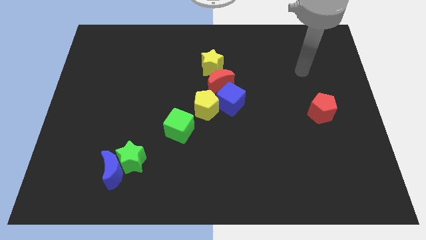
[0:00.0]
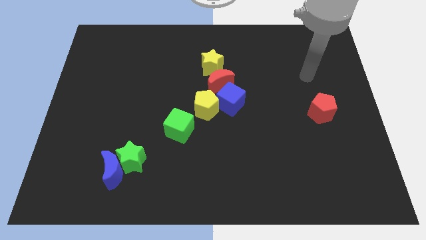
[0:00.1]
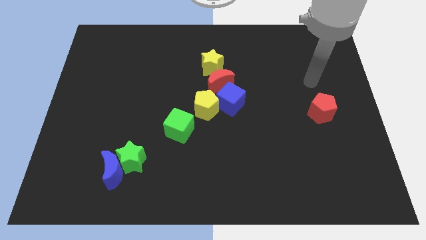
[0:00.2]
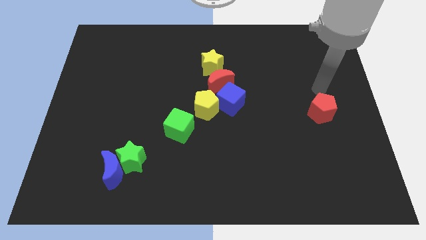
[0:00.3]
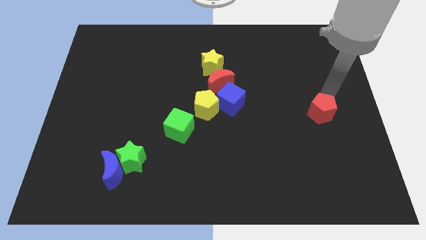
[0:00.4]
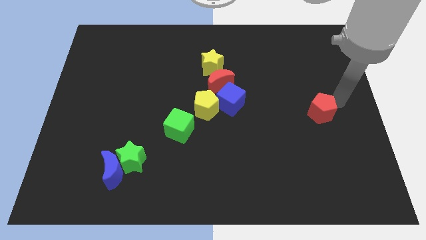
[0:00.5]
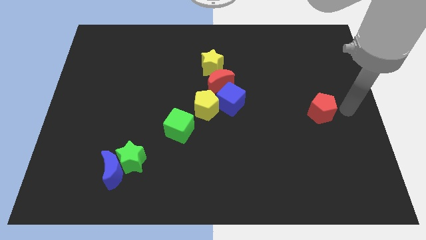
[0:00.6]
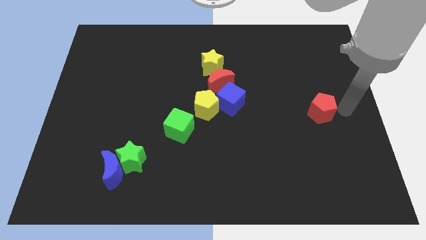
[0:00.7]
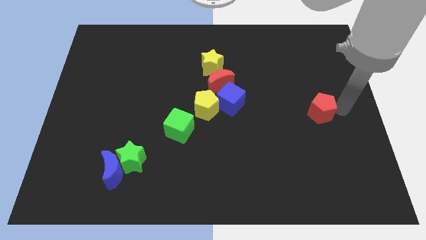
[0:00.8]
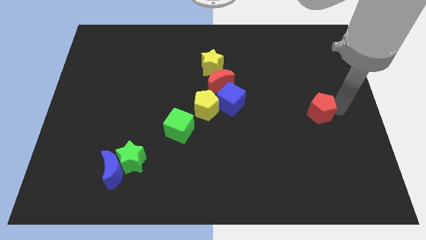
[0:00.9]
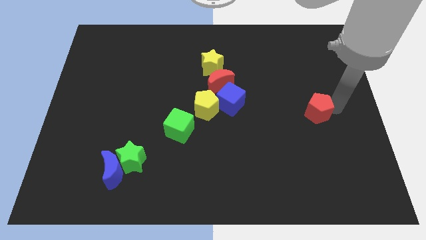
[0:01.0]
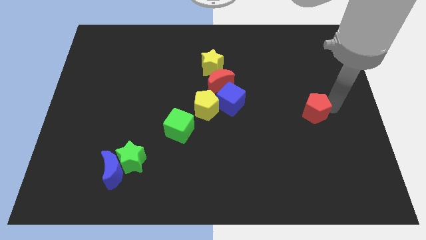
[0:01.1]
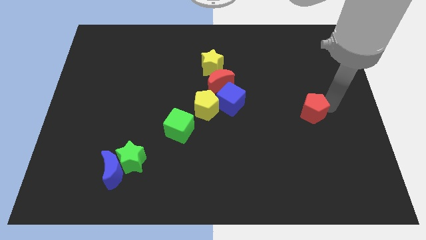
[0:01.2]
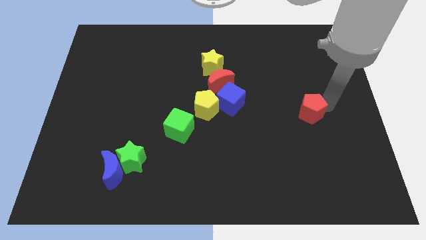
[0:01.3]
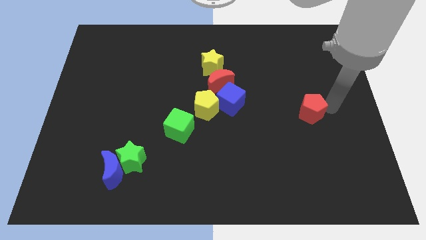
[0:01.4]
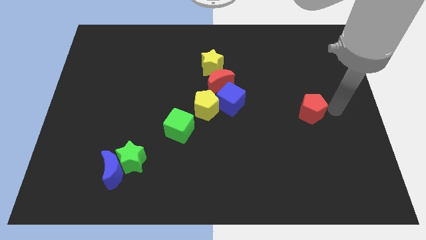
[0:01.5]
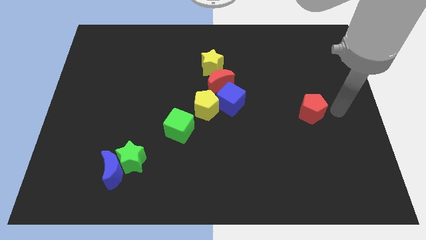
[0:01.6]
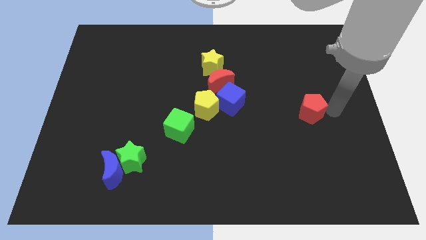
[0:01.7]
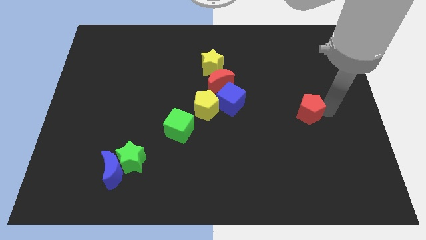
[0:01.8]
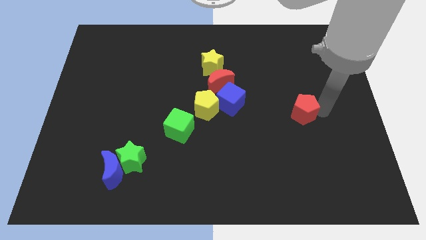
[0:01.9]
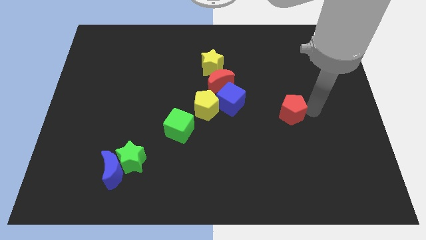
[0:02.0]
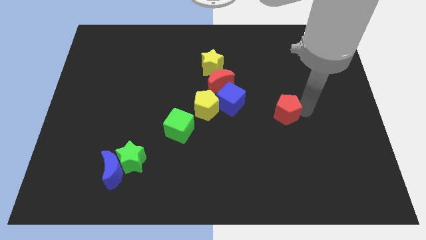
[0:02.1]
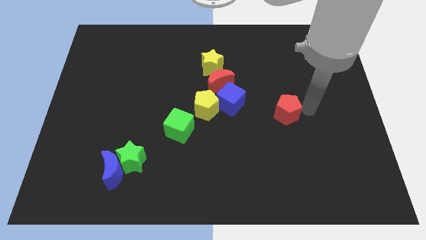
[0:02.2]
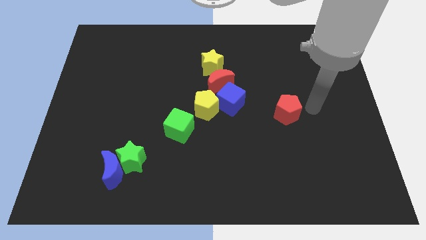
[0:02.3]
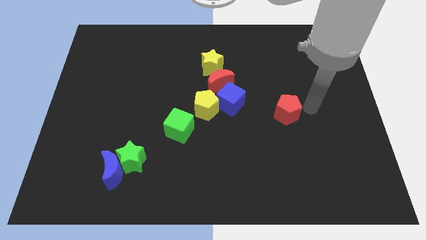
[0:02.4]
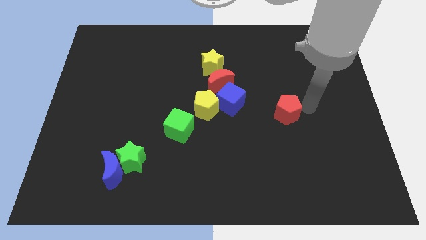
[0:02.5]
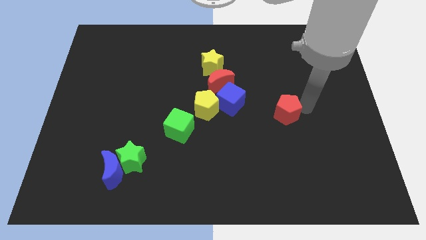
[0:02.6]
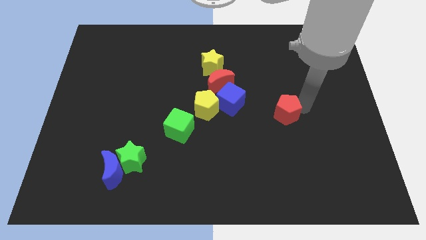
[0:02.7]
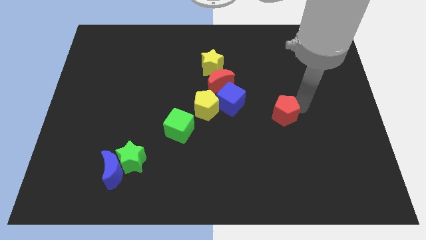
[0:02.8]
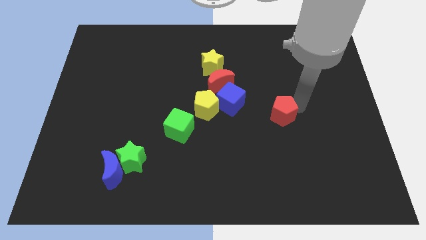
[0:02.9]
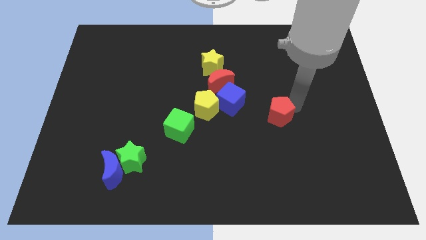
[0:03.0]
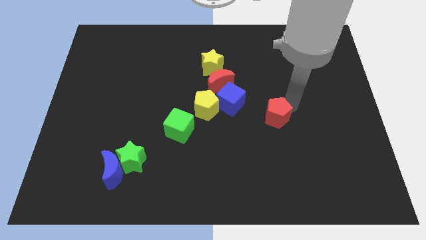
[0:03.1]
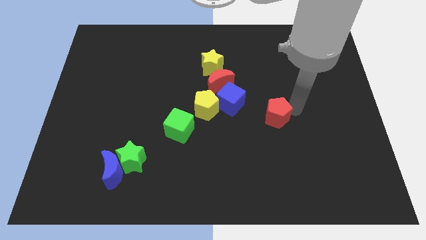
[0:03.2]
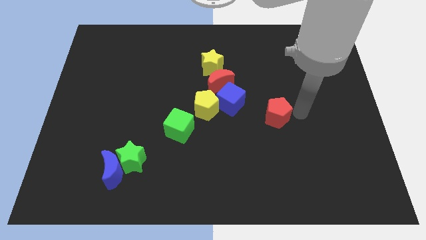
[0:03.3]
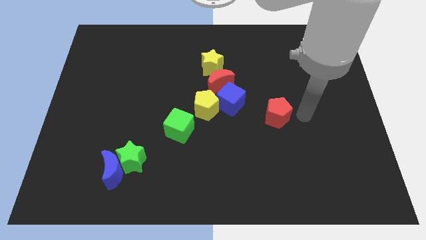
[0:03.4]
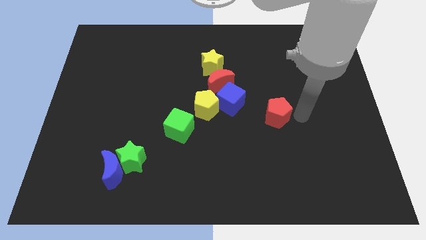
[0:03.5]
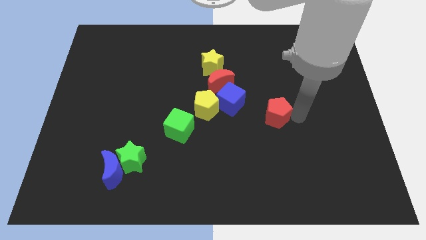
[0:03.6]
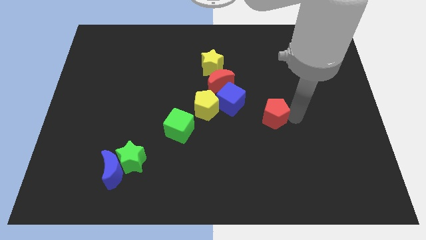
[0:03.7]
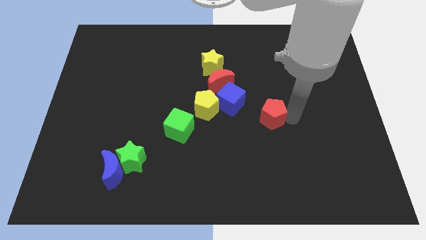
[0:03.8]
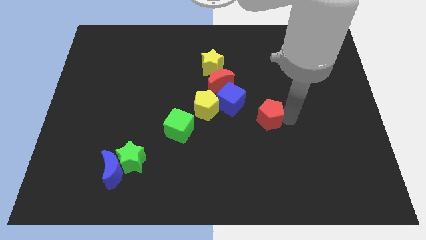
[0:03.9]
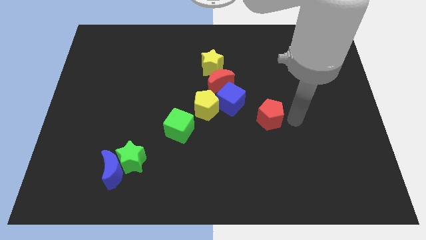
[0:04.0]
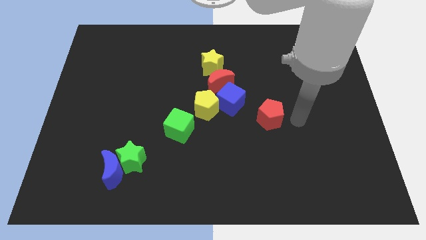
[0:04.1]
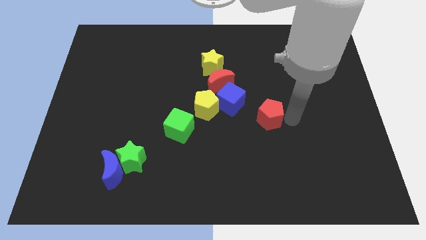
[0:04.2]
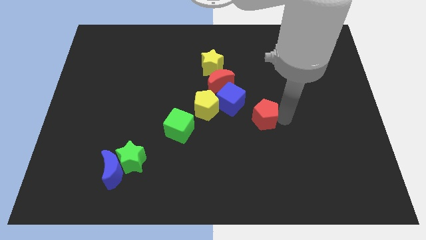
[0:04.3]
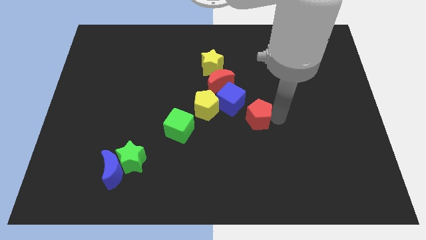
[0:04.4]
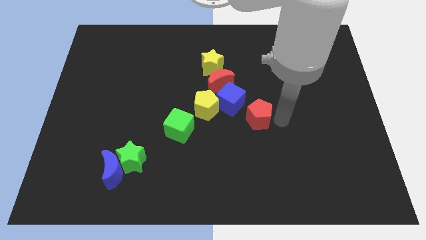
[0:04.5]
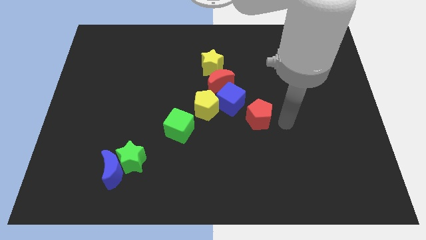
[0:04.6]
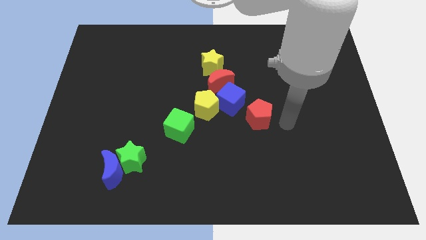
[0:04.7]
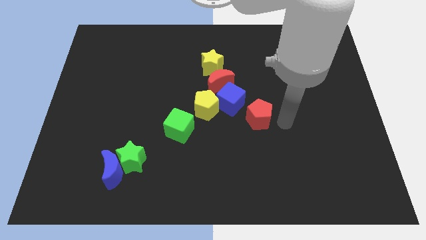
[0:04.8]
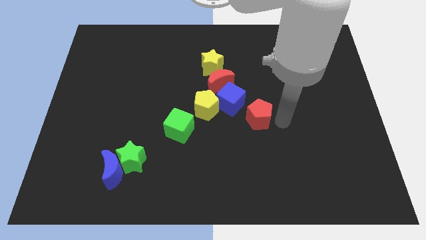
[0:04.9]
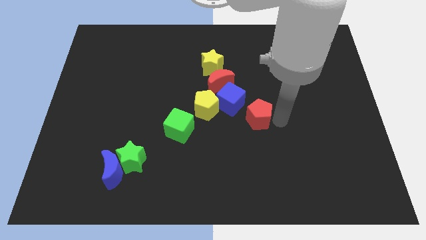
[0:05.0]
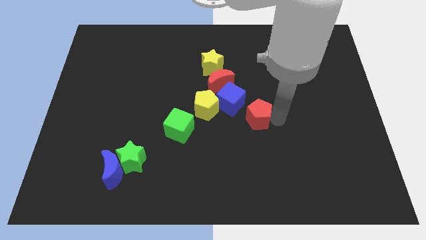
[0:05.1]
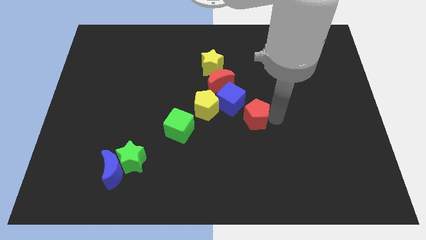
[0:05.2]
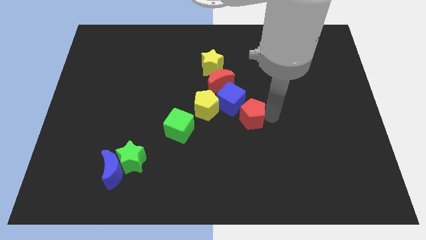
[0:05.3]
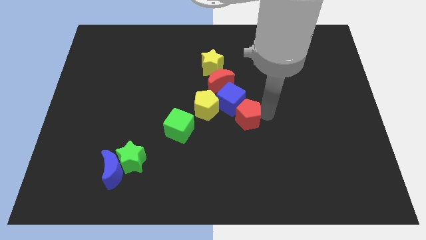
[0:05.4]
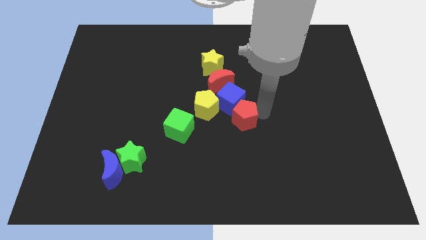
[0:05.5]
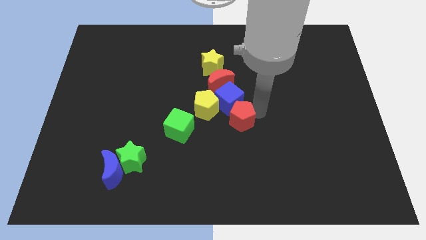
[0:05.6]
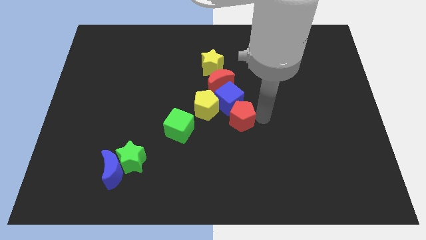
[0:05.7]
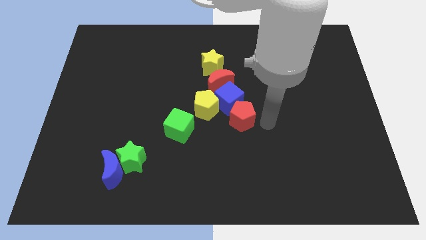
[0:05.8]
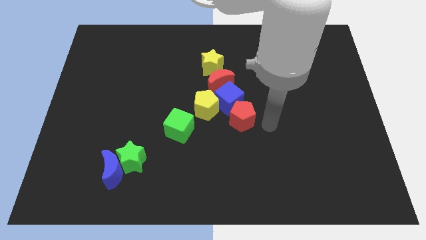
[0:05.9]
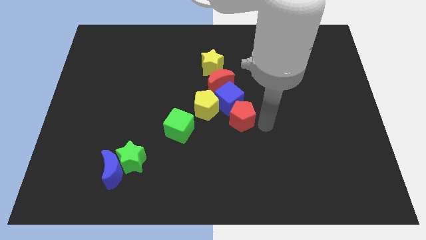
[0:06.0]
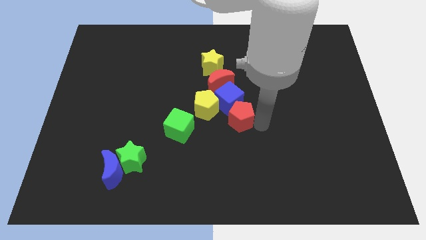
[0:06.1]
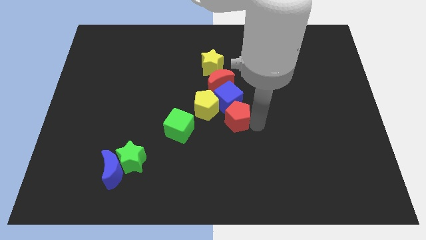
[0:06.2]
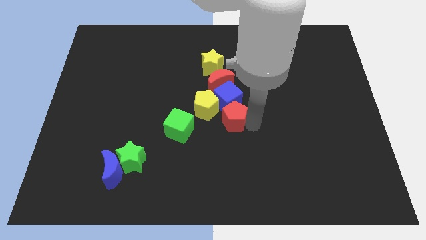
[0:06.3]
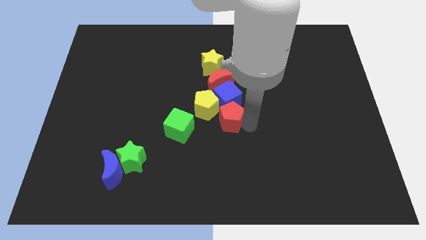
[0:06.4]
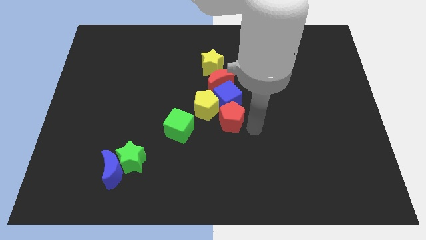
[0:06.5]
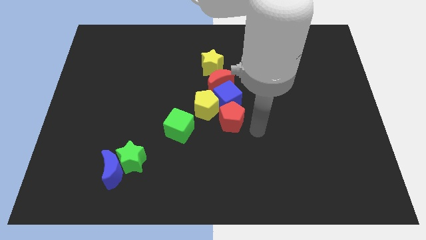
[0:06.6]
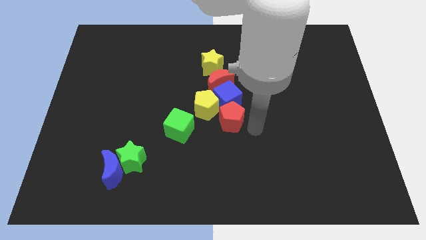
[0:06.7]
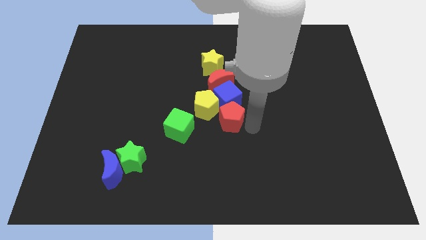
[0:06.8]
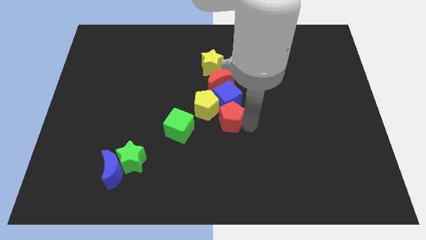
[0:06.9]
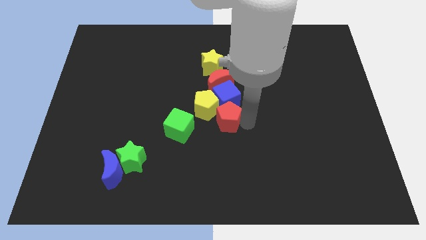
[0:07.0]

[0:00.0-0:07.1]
push the red pentagon towards the yellow pentagon
